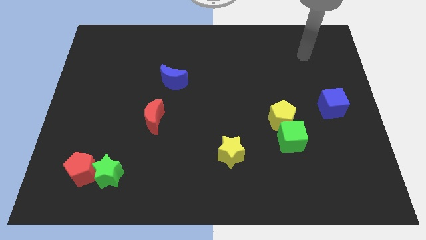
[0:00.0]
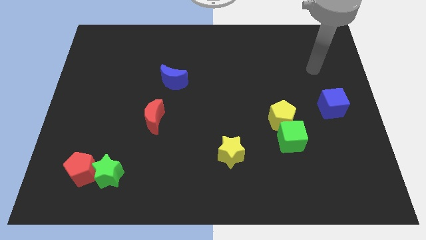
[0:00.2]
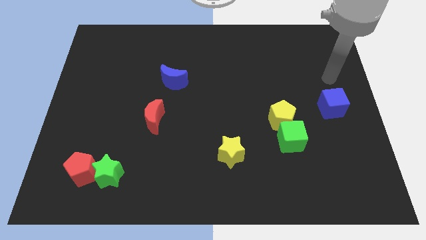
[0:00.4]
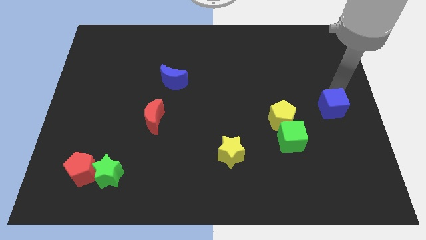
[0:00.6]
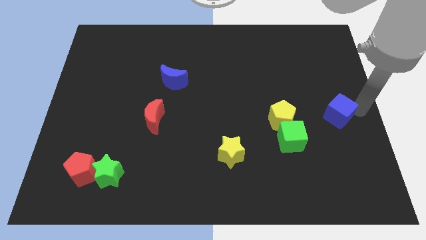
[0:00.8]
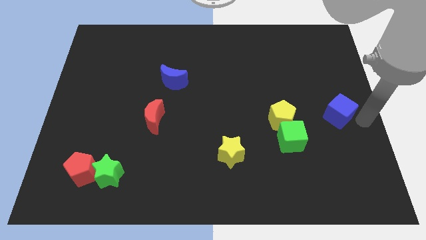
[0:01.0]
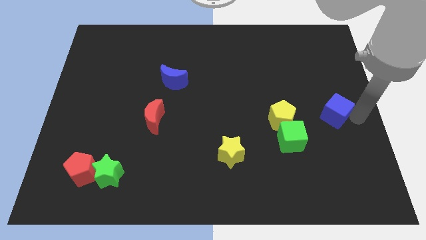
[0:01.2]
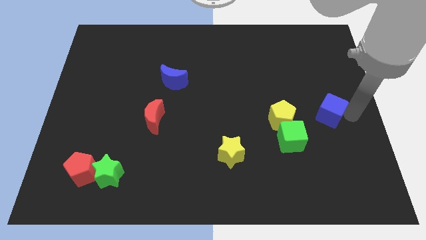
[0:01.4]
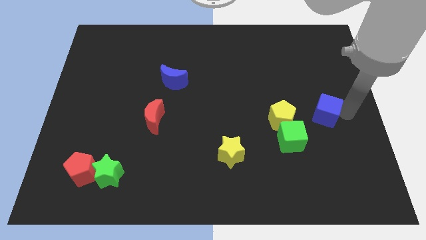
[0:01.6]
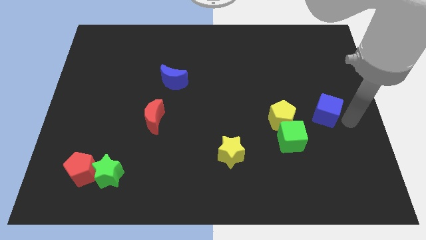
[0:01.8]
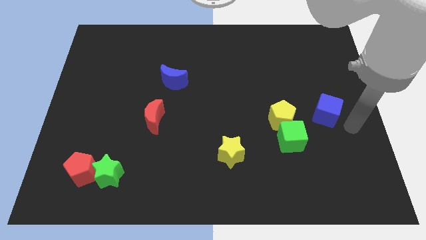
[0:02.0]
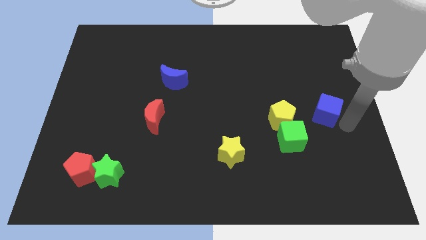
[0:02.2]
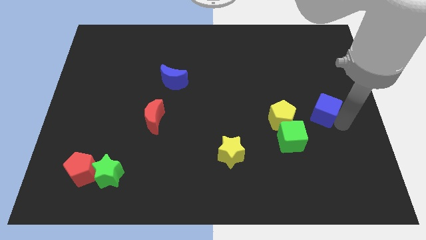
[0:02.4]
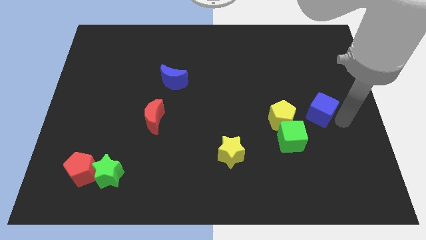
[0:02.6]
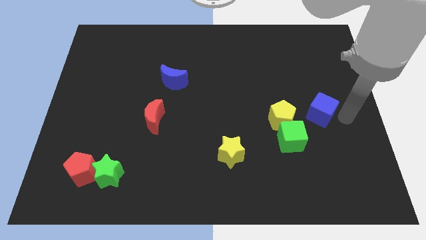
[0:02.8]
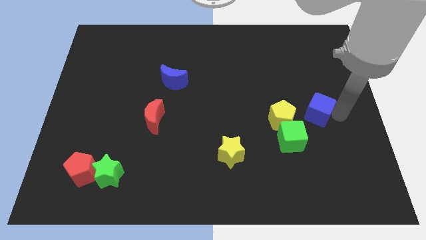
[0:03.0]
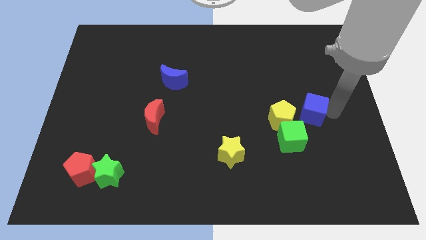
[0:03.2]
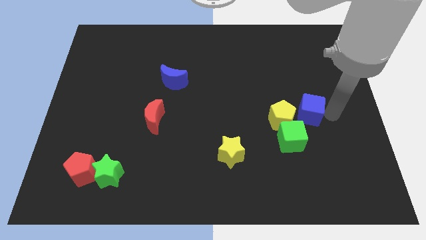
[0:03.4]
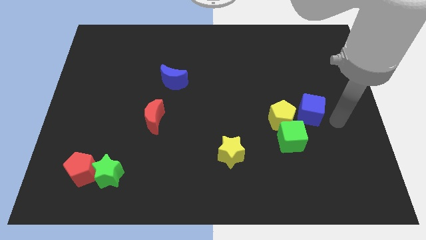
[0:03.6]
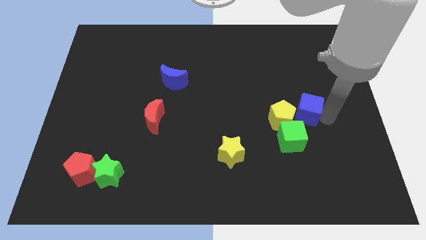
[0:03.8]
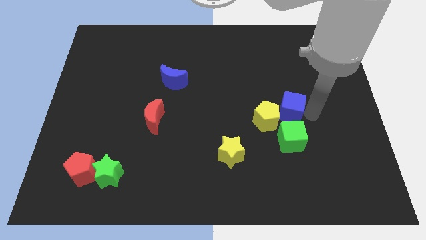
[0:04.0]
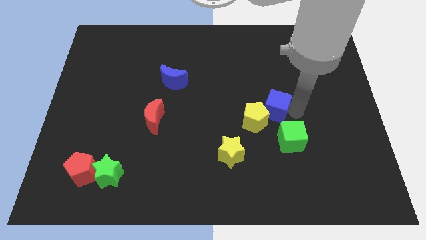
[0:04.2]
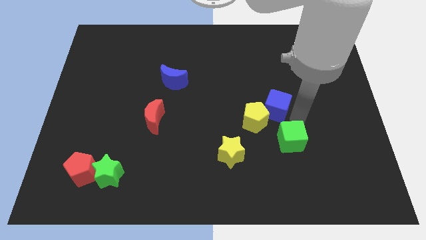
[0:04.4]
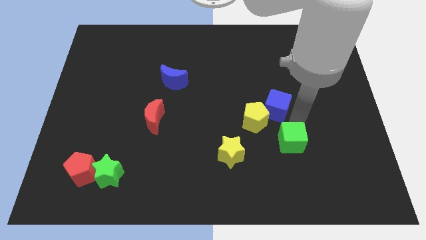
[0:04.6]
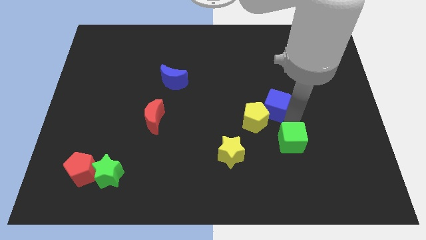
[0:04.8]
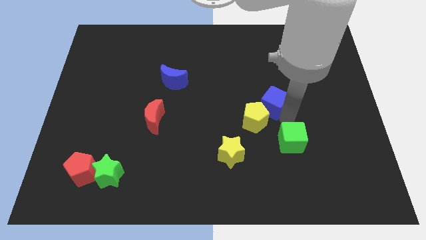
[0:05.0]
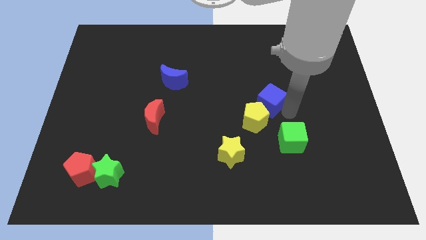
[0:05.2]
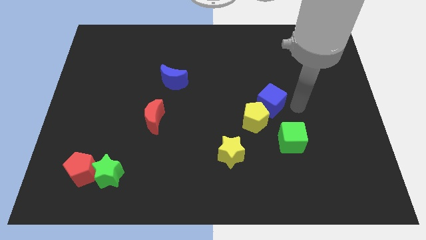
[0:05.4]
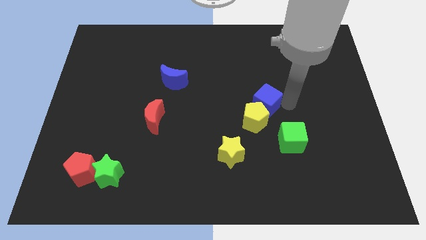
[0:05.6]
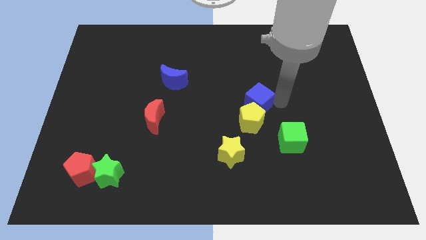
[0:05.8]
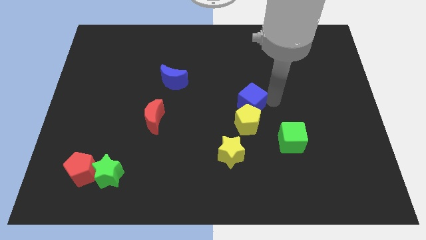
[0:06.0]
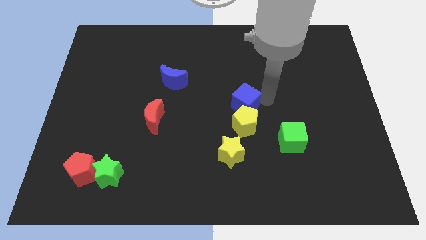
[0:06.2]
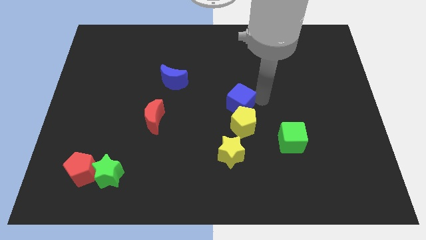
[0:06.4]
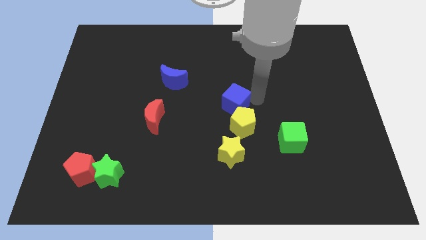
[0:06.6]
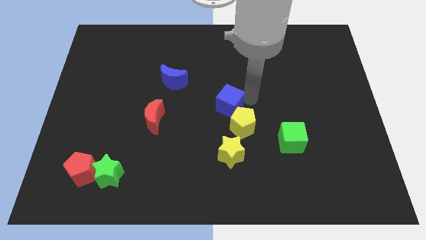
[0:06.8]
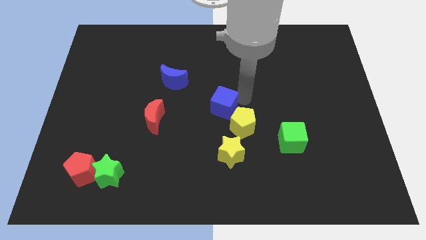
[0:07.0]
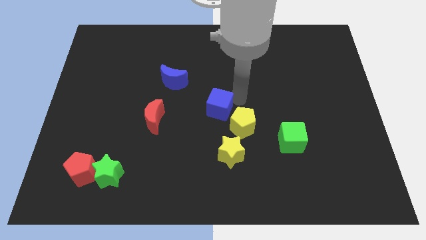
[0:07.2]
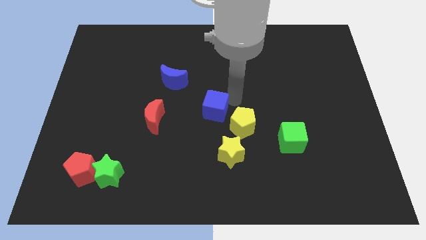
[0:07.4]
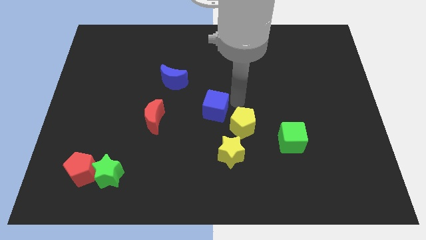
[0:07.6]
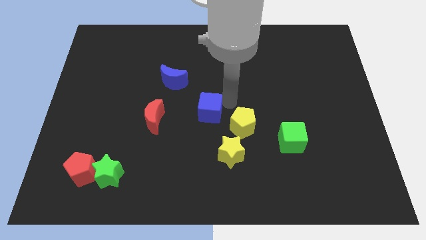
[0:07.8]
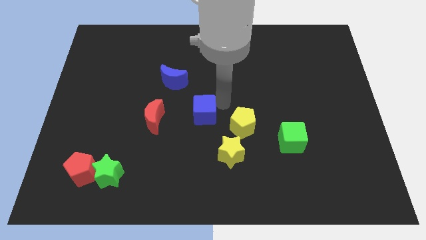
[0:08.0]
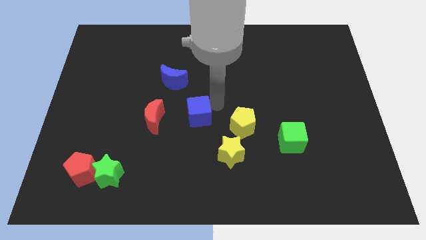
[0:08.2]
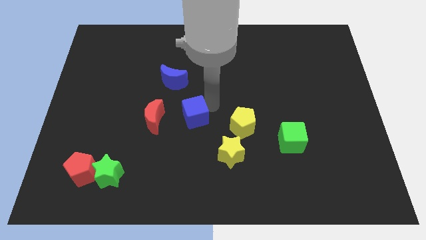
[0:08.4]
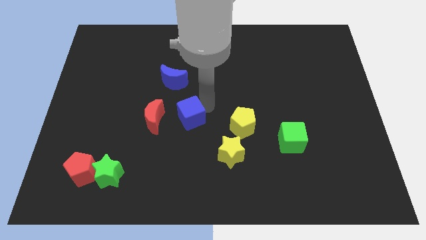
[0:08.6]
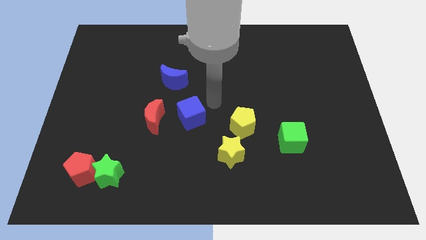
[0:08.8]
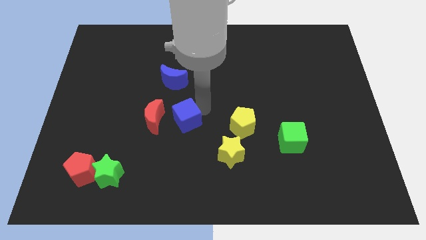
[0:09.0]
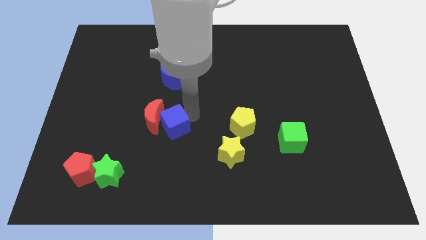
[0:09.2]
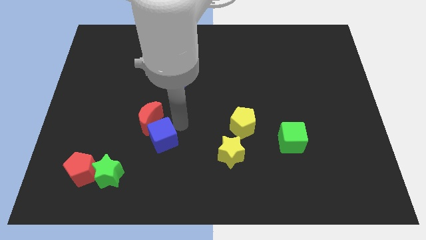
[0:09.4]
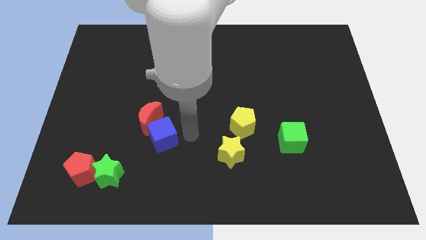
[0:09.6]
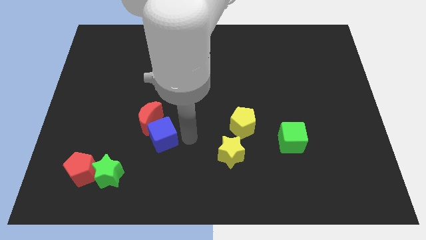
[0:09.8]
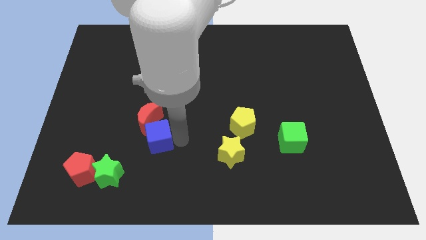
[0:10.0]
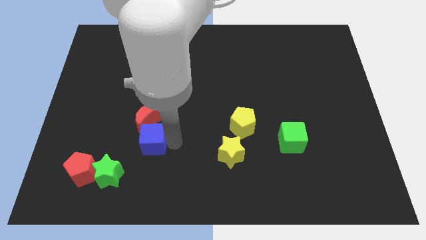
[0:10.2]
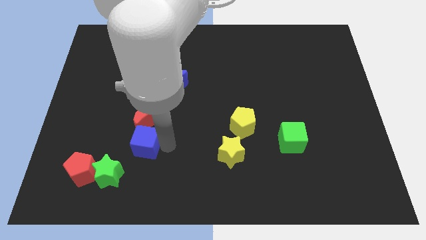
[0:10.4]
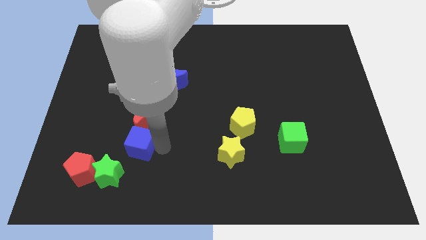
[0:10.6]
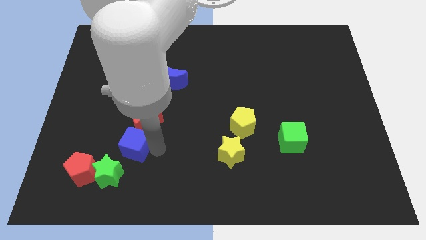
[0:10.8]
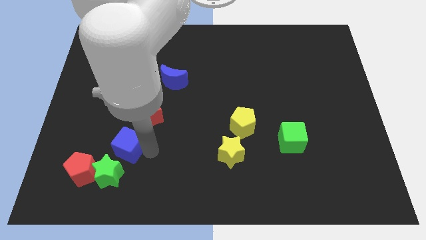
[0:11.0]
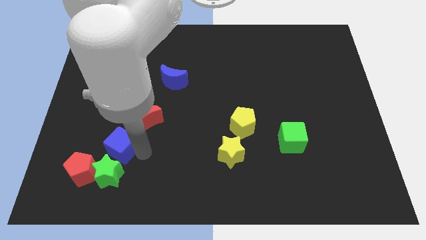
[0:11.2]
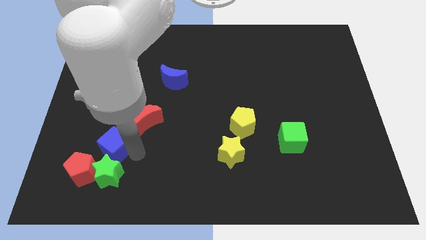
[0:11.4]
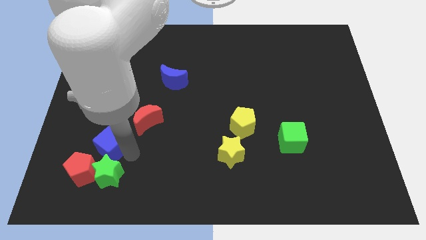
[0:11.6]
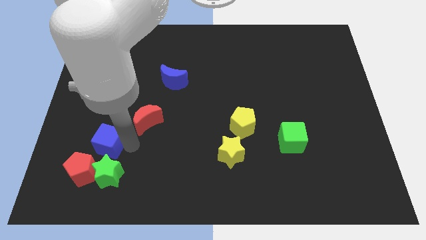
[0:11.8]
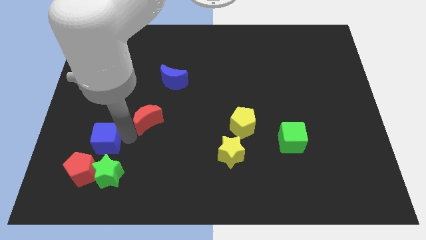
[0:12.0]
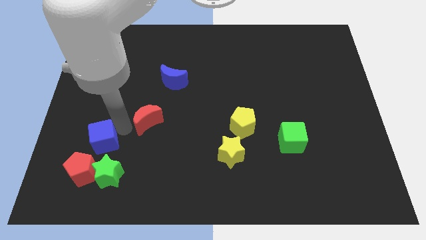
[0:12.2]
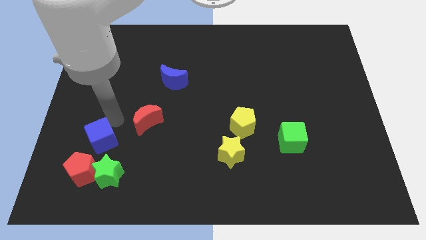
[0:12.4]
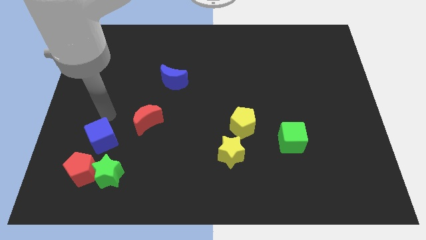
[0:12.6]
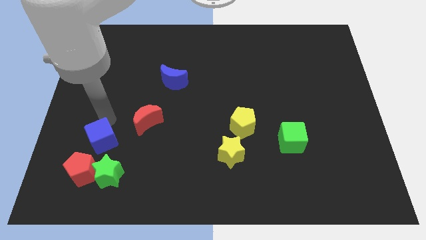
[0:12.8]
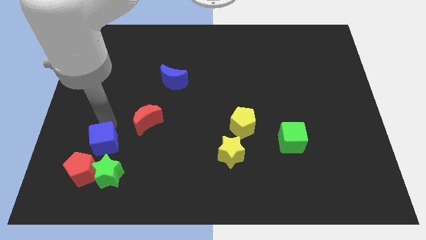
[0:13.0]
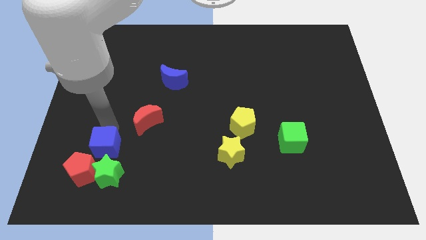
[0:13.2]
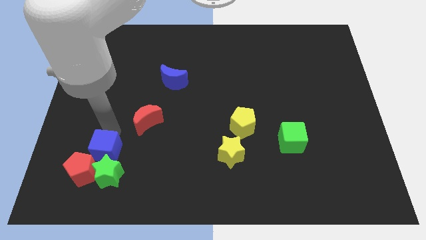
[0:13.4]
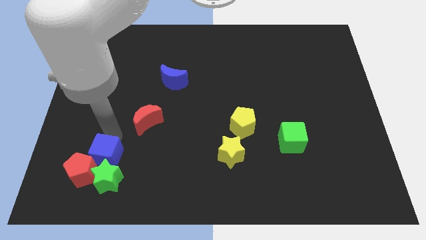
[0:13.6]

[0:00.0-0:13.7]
move the blue cube close to the red pentagon
